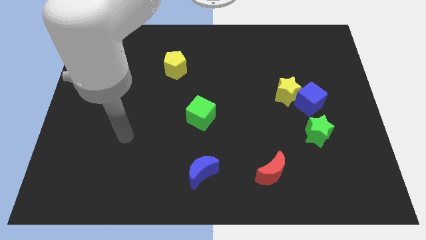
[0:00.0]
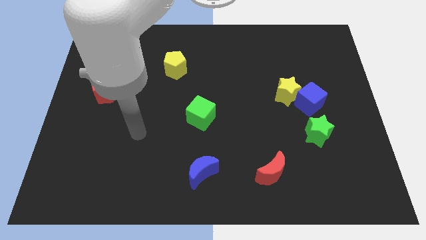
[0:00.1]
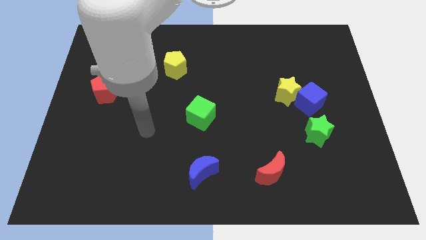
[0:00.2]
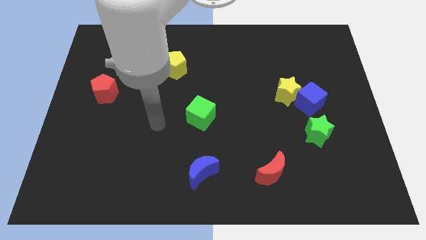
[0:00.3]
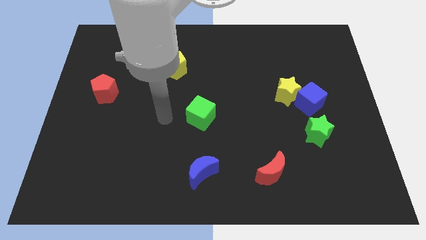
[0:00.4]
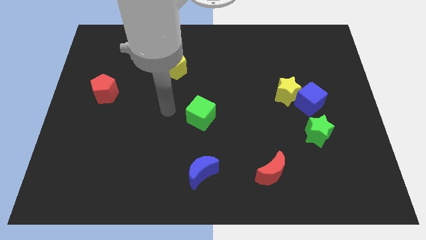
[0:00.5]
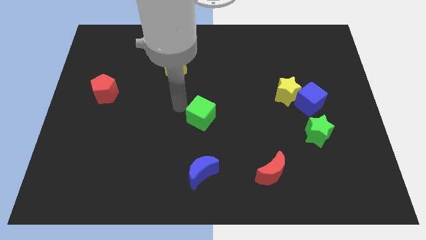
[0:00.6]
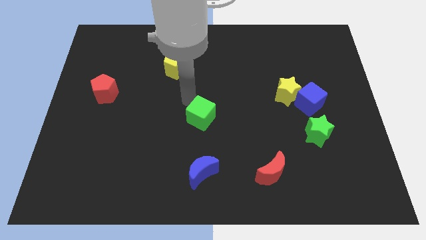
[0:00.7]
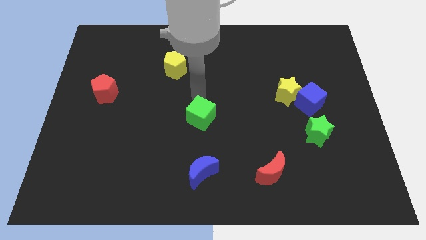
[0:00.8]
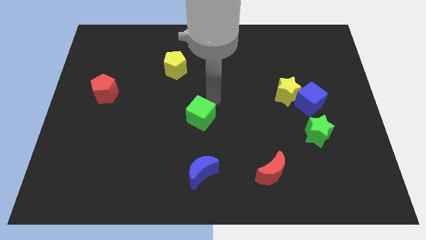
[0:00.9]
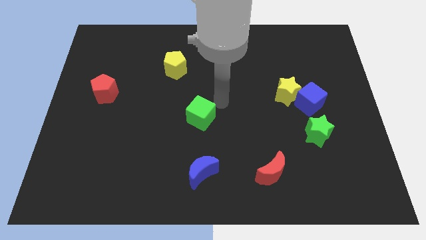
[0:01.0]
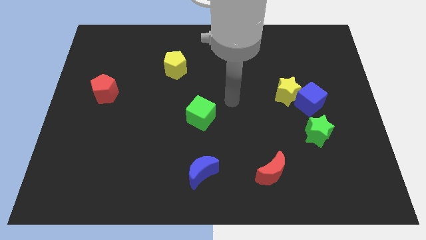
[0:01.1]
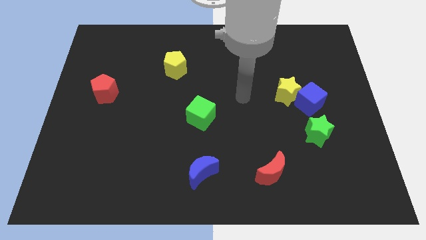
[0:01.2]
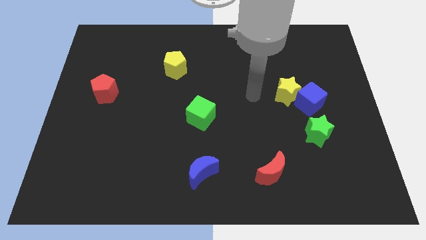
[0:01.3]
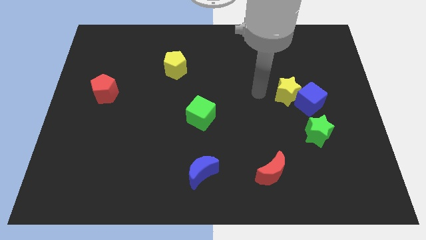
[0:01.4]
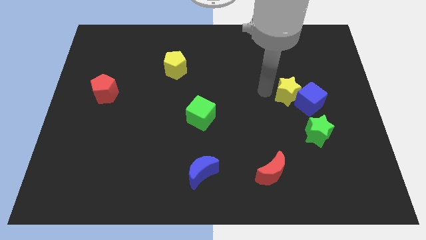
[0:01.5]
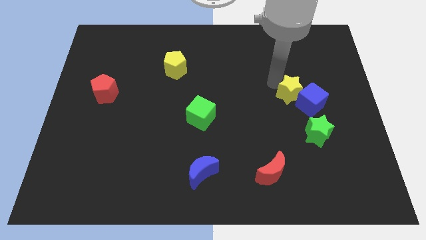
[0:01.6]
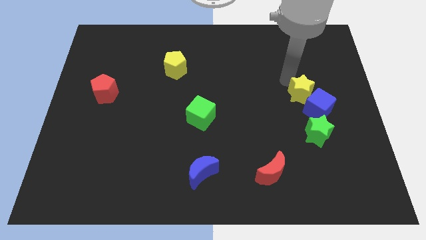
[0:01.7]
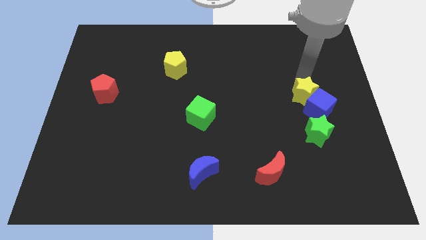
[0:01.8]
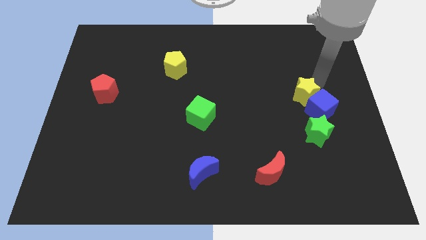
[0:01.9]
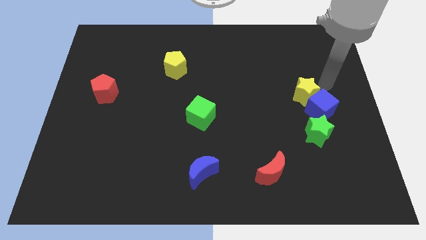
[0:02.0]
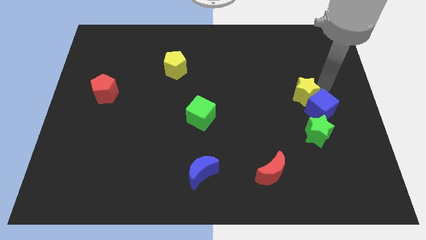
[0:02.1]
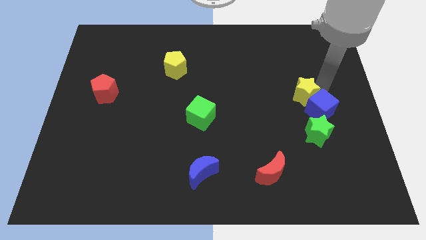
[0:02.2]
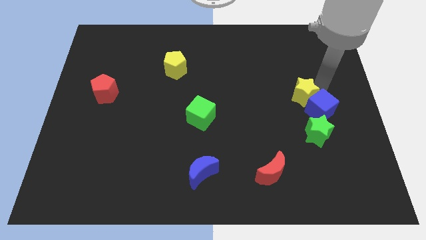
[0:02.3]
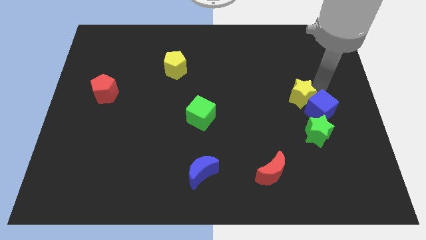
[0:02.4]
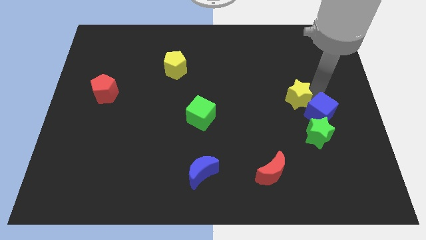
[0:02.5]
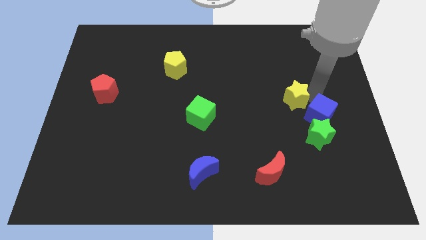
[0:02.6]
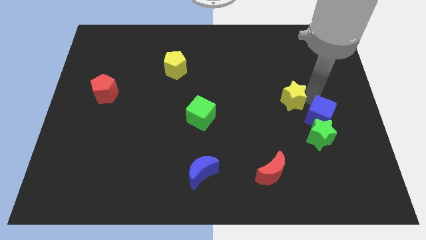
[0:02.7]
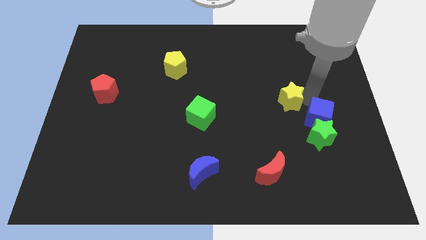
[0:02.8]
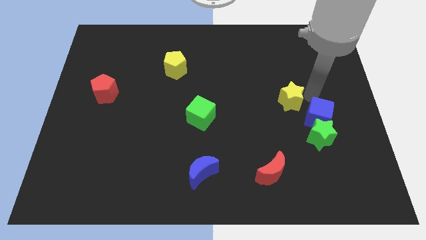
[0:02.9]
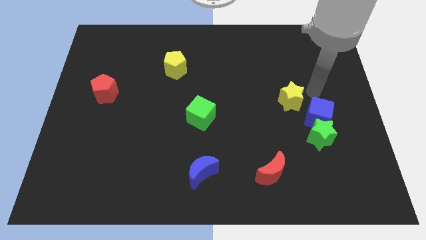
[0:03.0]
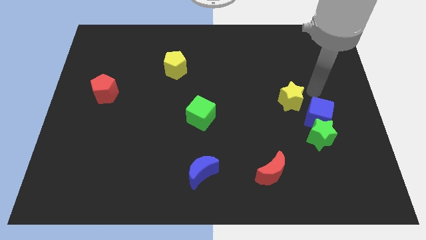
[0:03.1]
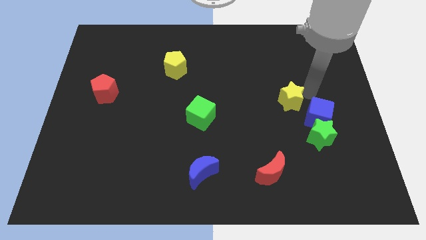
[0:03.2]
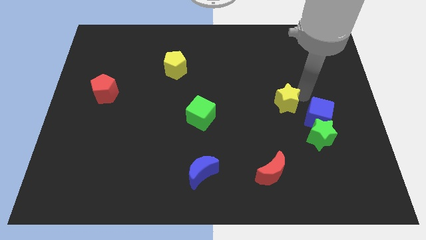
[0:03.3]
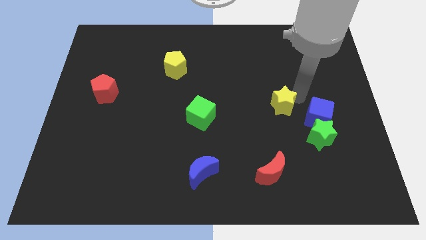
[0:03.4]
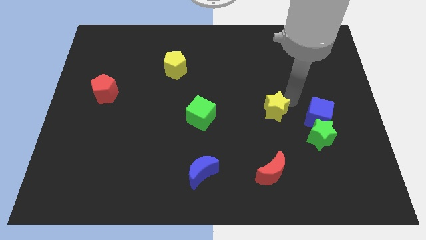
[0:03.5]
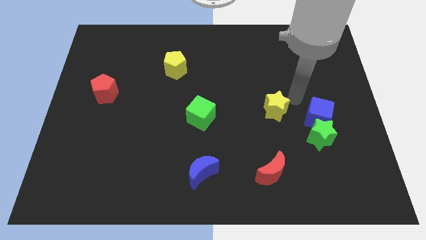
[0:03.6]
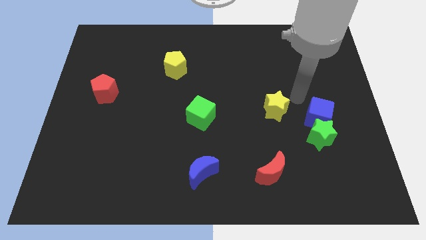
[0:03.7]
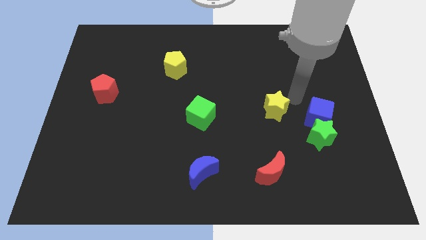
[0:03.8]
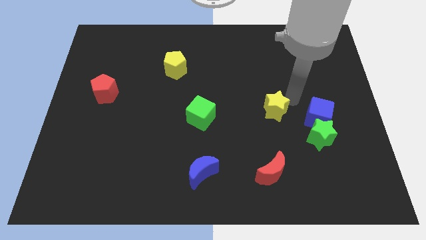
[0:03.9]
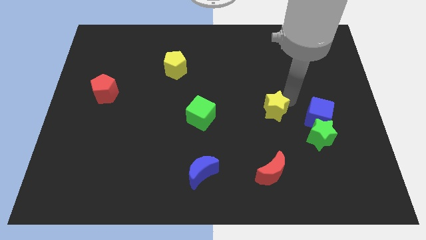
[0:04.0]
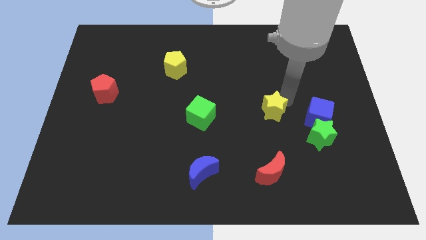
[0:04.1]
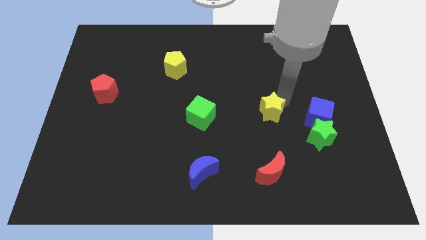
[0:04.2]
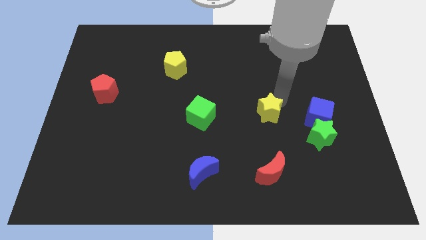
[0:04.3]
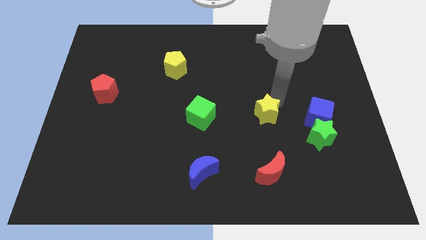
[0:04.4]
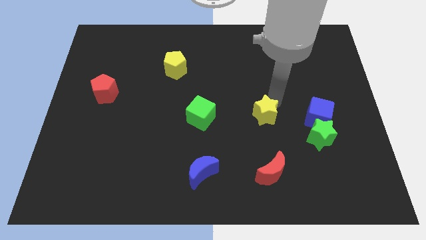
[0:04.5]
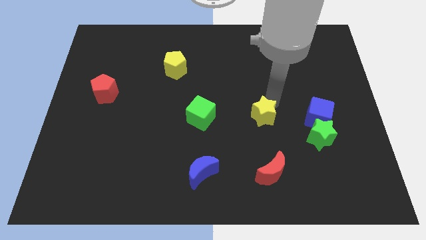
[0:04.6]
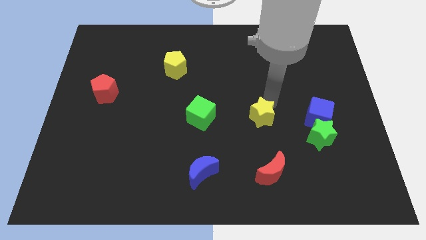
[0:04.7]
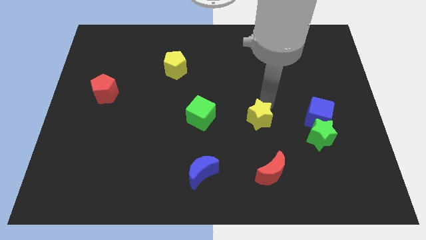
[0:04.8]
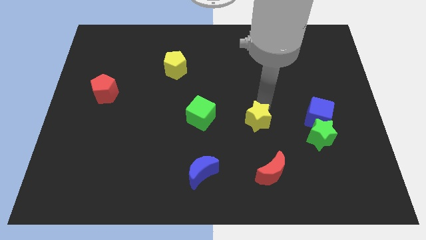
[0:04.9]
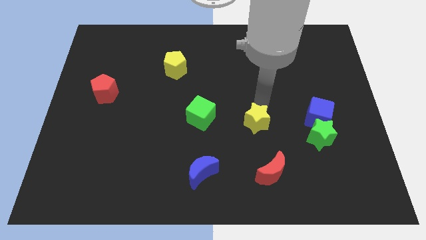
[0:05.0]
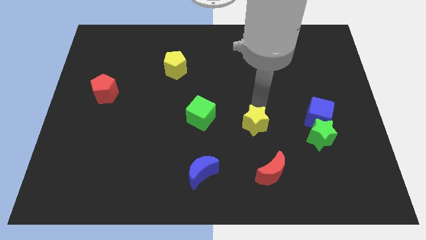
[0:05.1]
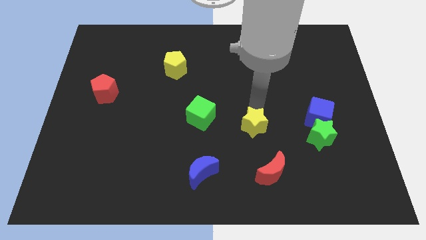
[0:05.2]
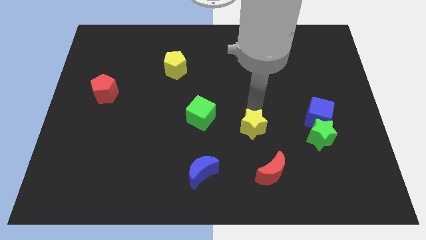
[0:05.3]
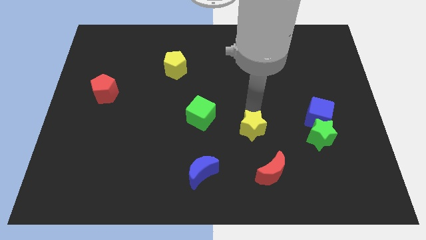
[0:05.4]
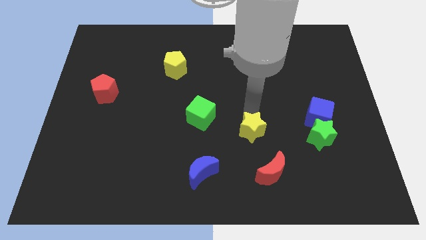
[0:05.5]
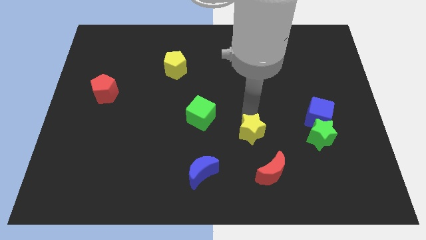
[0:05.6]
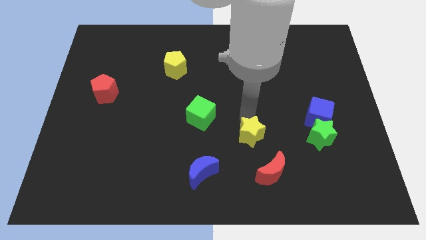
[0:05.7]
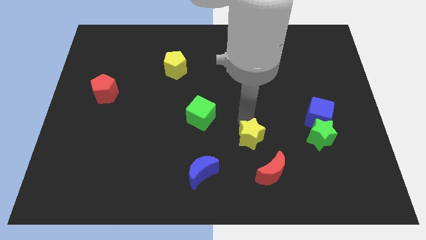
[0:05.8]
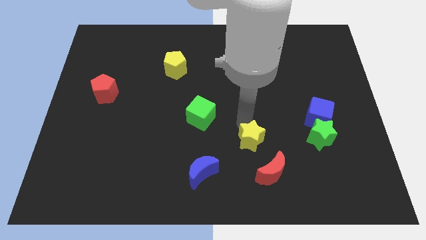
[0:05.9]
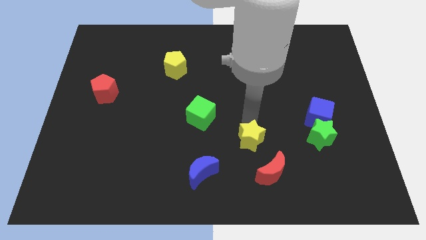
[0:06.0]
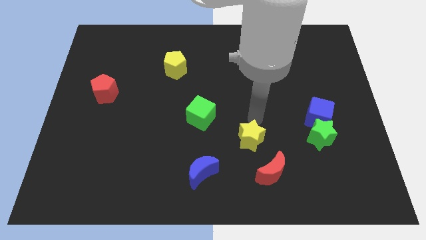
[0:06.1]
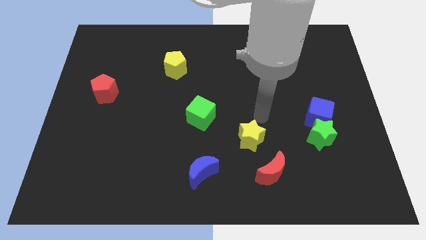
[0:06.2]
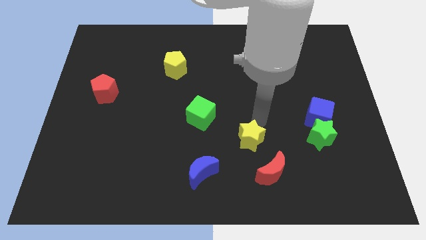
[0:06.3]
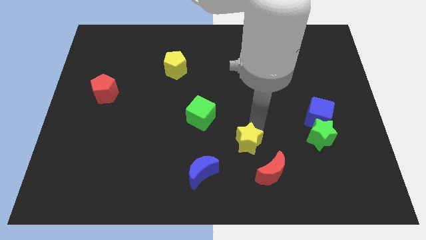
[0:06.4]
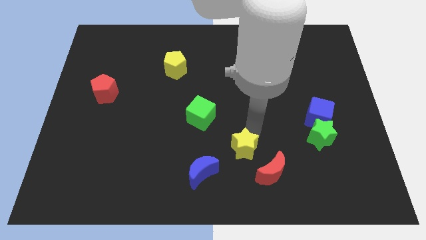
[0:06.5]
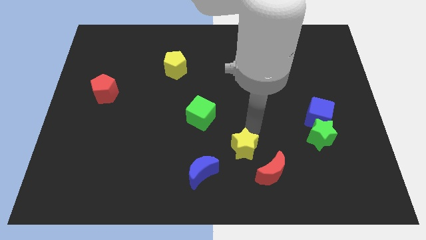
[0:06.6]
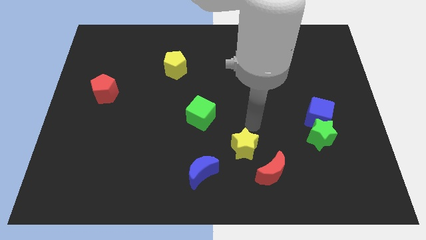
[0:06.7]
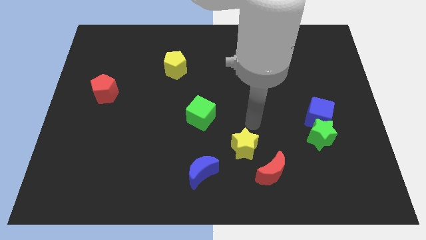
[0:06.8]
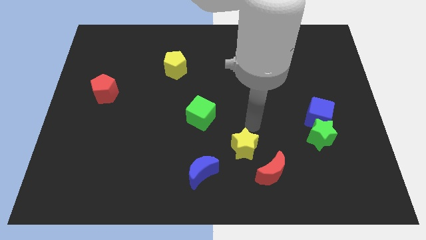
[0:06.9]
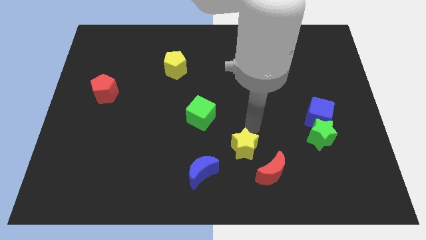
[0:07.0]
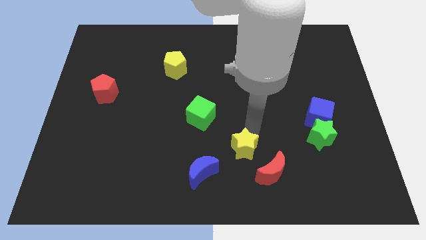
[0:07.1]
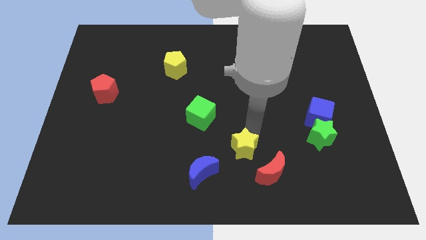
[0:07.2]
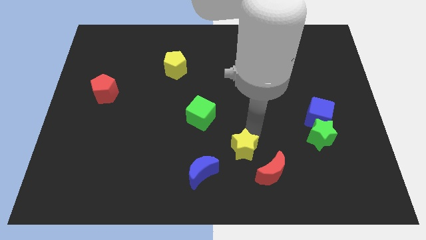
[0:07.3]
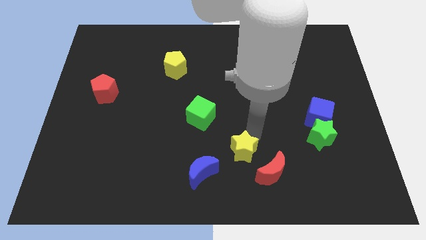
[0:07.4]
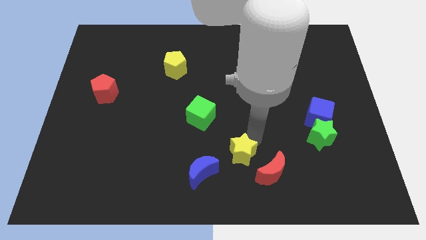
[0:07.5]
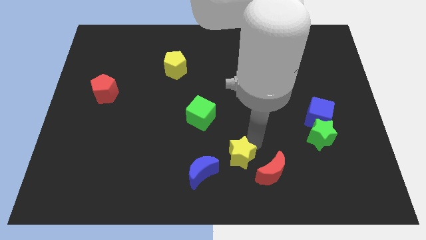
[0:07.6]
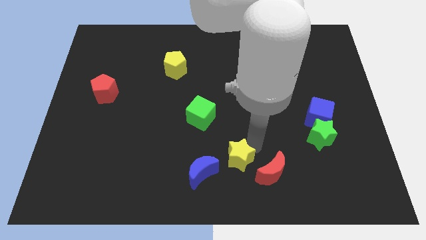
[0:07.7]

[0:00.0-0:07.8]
slide the yellow star to the bottom side
